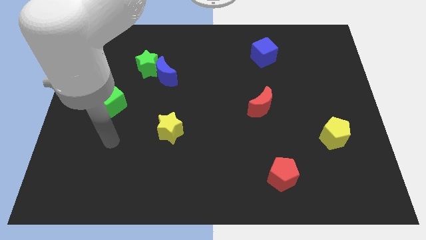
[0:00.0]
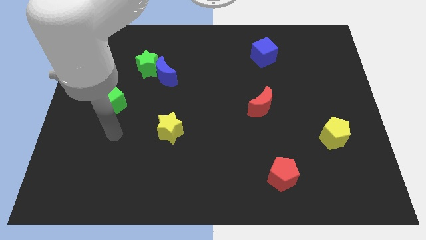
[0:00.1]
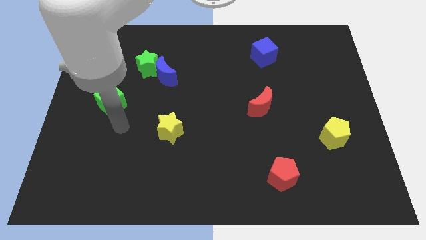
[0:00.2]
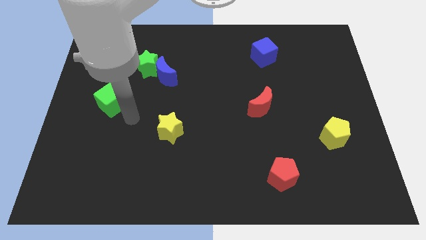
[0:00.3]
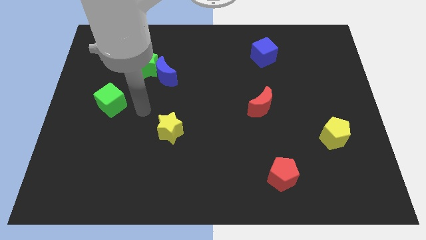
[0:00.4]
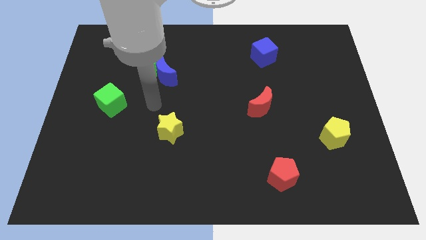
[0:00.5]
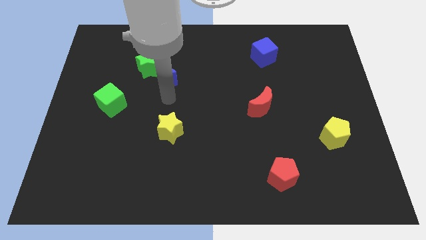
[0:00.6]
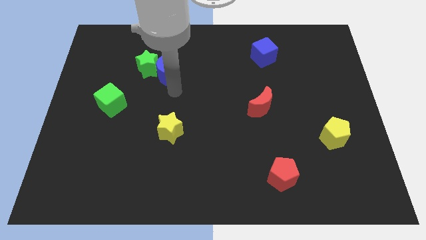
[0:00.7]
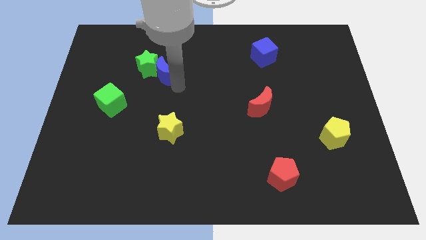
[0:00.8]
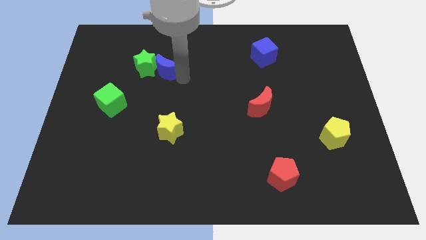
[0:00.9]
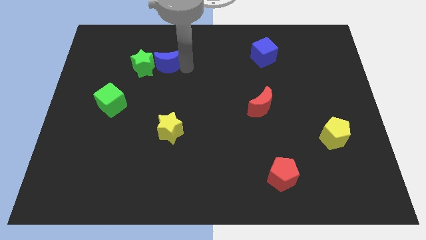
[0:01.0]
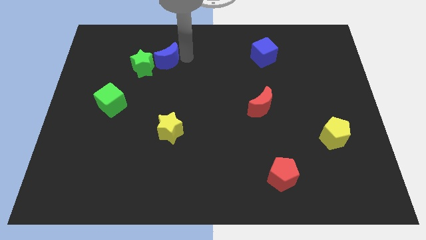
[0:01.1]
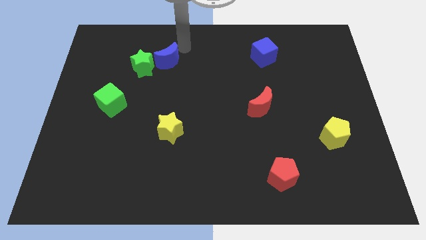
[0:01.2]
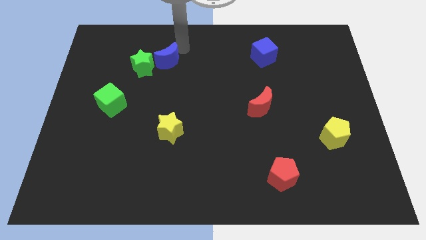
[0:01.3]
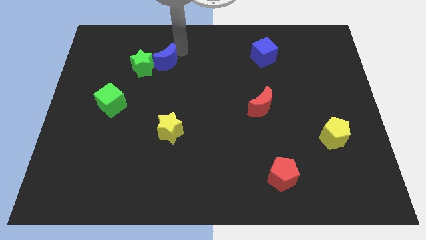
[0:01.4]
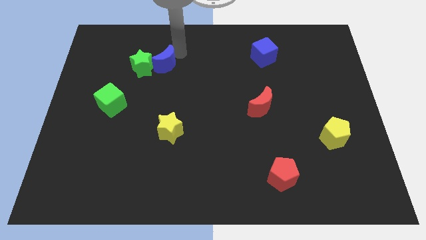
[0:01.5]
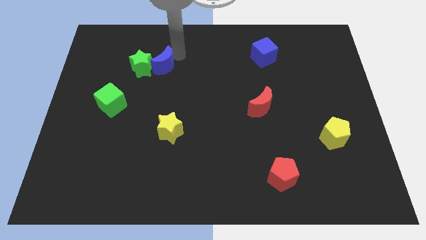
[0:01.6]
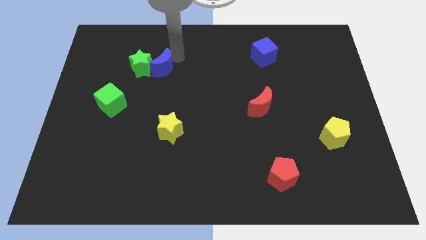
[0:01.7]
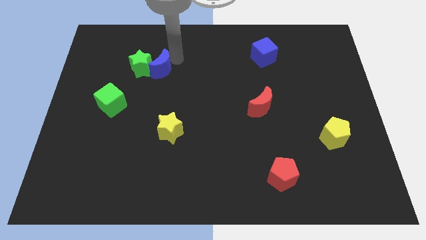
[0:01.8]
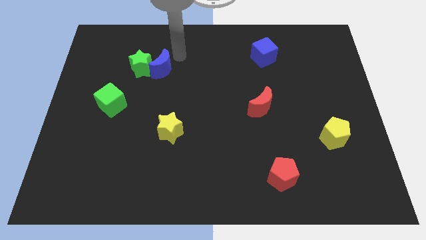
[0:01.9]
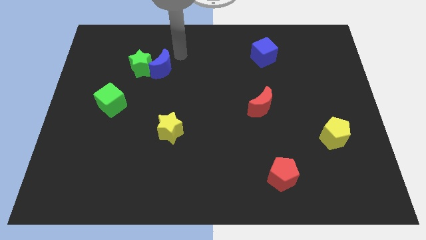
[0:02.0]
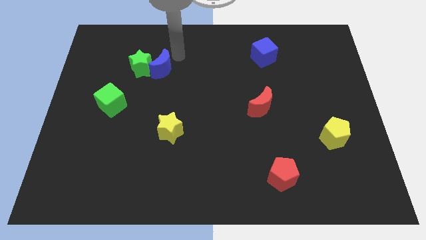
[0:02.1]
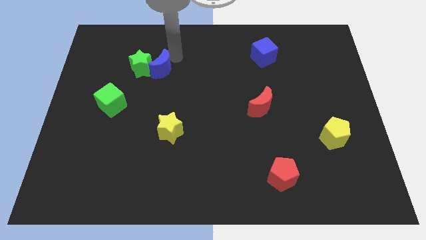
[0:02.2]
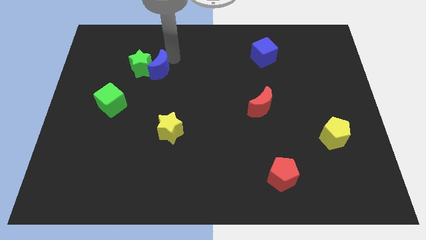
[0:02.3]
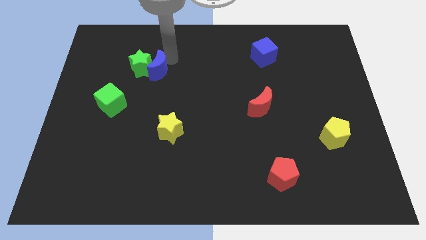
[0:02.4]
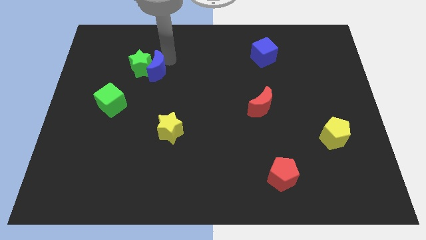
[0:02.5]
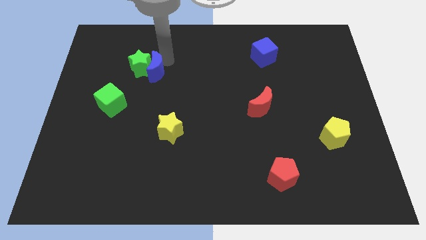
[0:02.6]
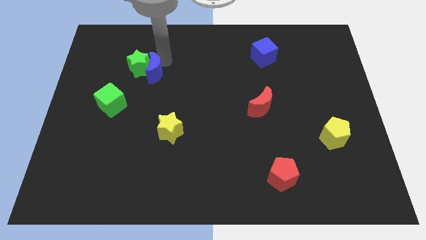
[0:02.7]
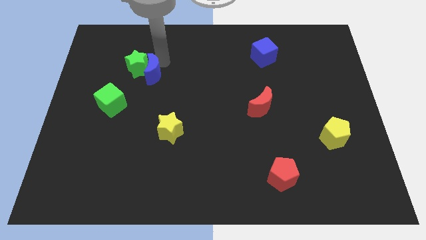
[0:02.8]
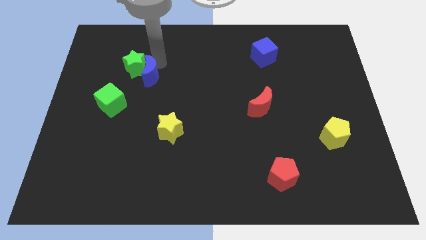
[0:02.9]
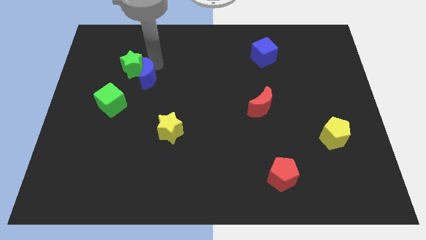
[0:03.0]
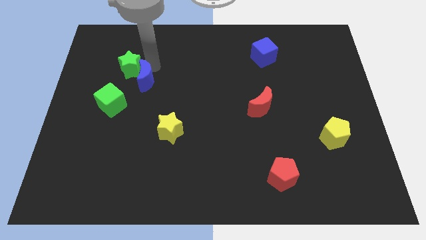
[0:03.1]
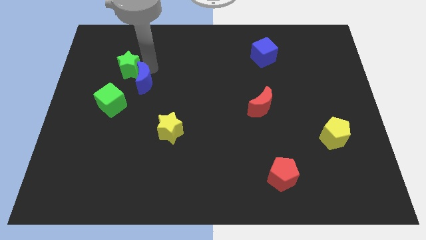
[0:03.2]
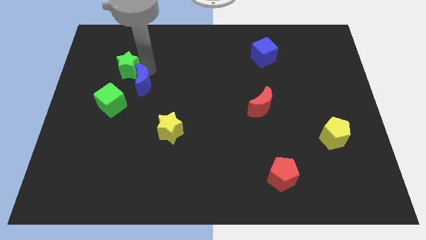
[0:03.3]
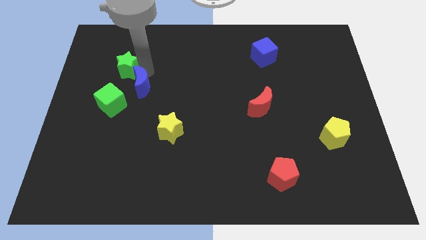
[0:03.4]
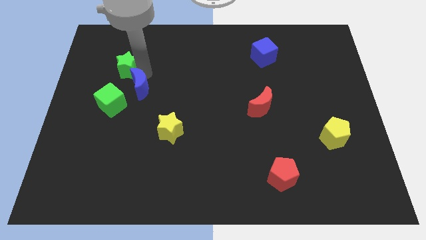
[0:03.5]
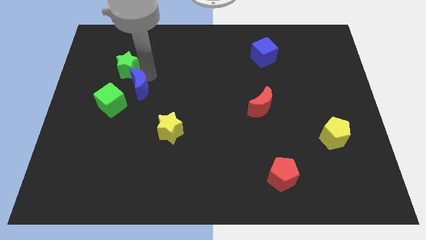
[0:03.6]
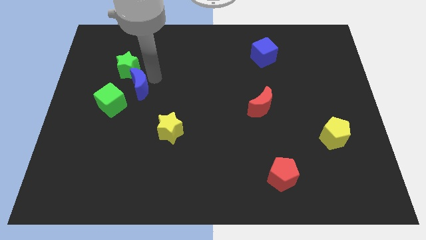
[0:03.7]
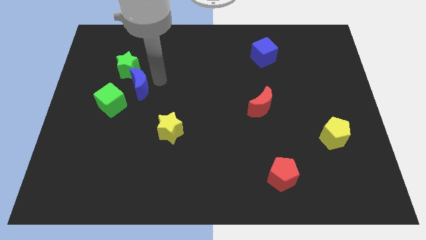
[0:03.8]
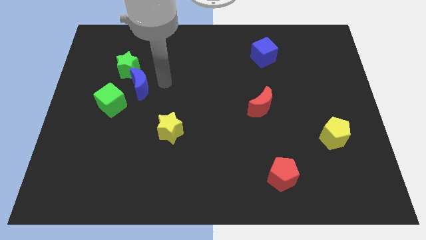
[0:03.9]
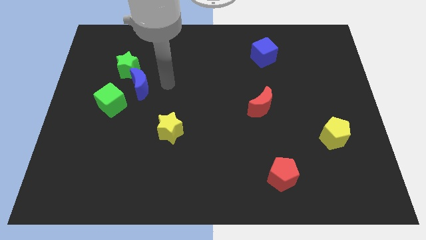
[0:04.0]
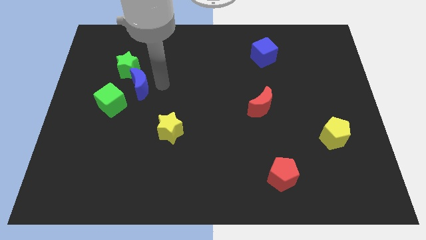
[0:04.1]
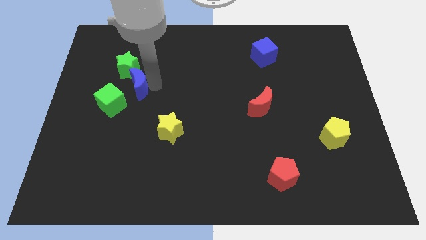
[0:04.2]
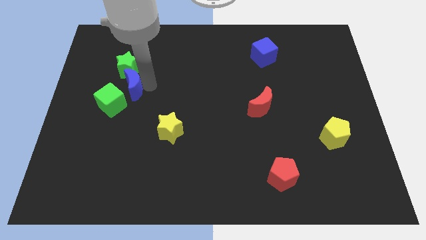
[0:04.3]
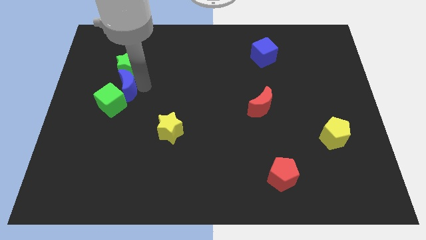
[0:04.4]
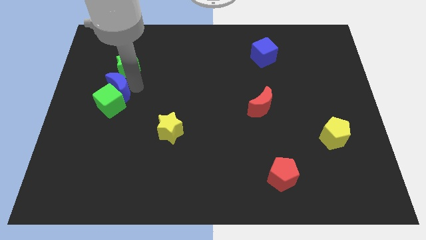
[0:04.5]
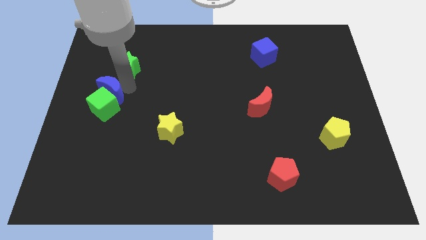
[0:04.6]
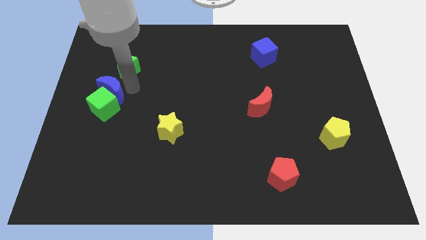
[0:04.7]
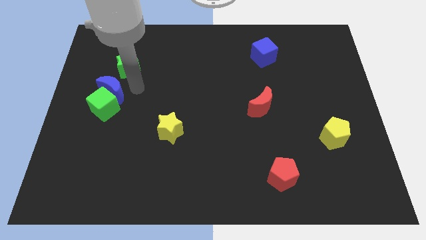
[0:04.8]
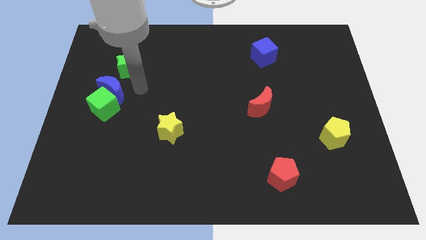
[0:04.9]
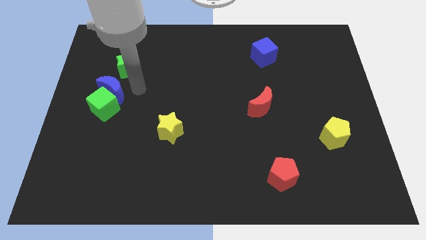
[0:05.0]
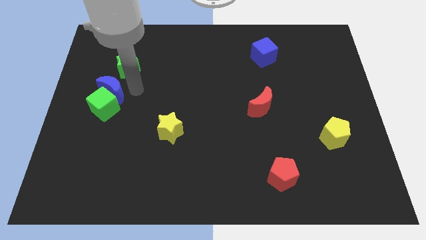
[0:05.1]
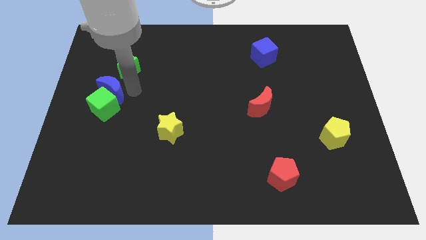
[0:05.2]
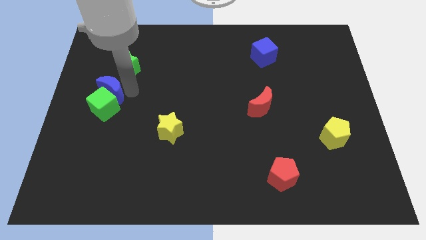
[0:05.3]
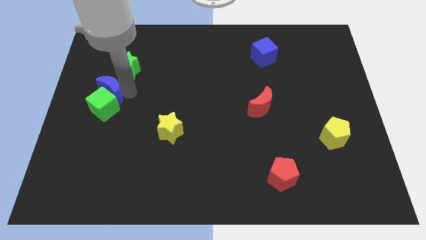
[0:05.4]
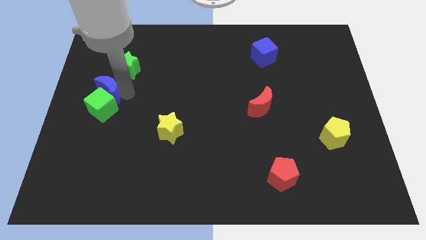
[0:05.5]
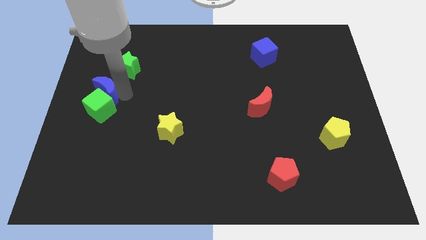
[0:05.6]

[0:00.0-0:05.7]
move the blue moon to the center left

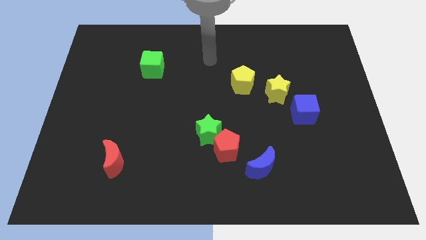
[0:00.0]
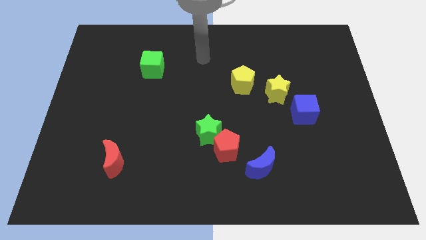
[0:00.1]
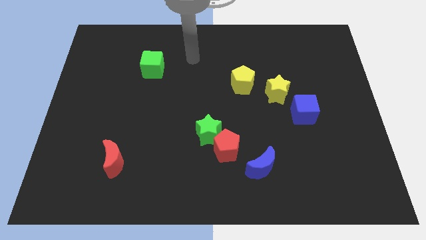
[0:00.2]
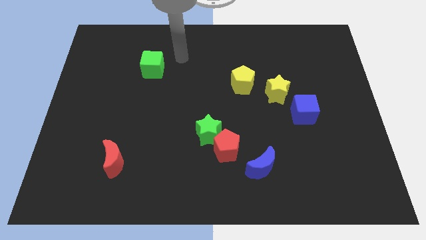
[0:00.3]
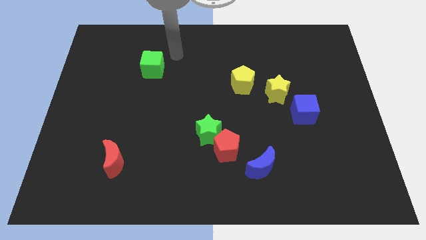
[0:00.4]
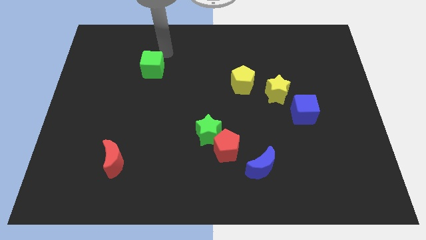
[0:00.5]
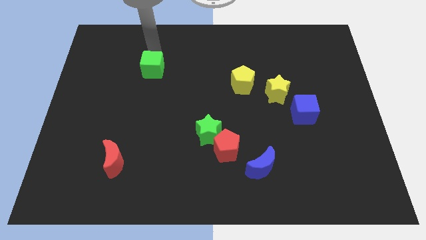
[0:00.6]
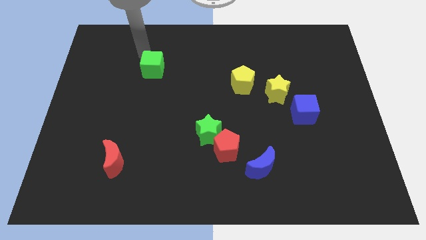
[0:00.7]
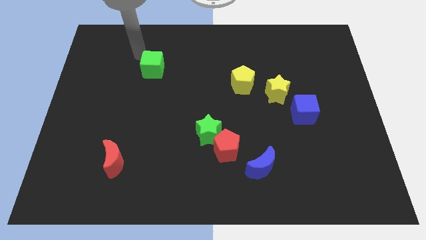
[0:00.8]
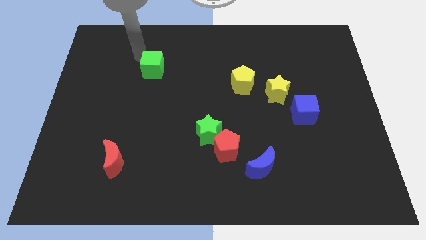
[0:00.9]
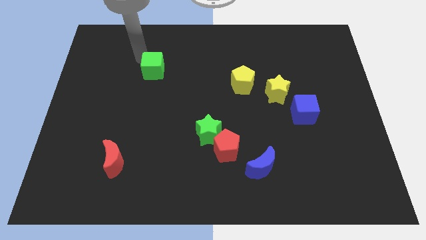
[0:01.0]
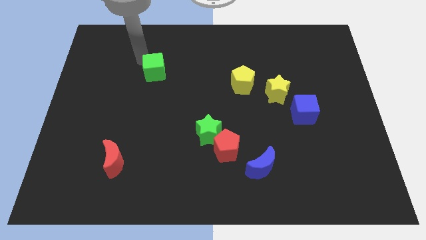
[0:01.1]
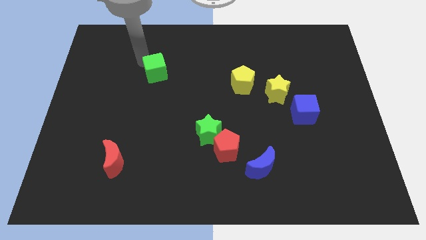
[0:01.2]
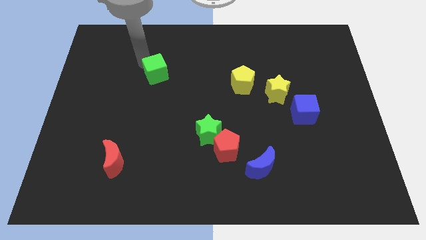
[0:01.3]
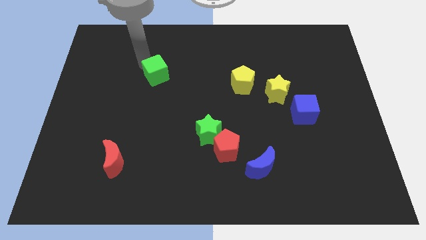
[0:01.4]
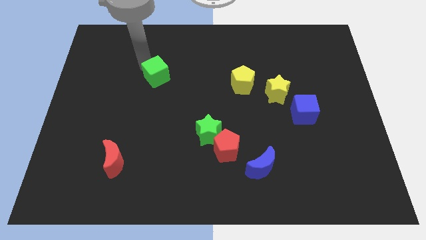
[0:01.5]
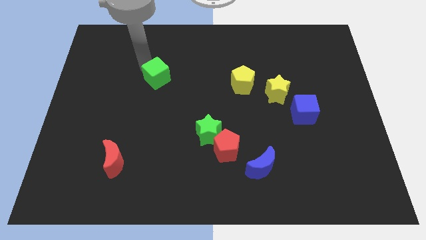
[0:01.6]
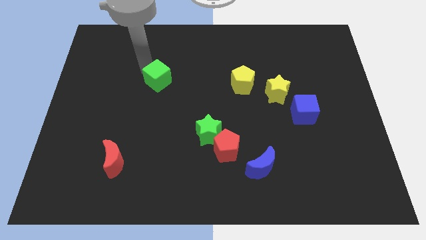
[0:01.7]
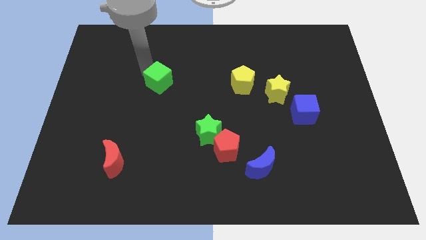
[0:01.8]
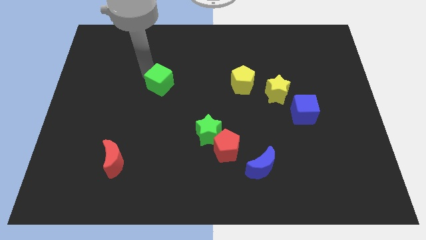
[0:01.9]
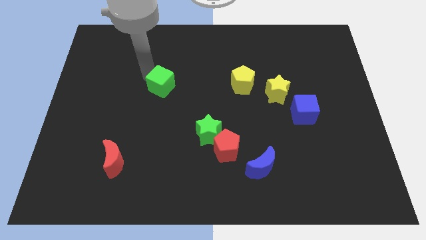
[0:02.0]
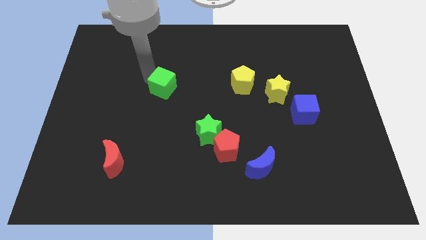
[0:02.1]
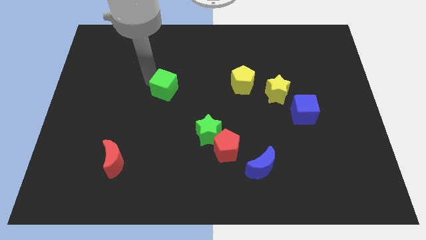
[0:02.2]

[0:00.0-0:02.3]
move the green cube to the middle
